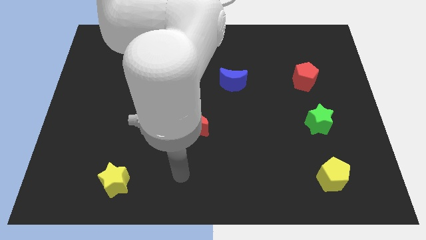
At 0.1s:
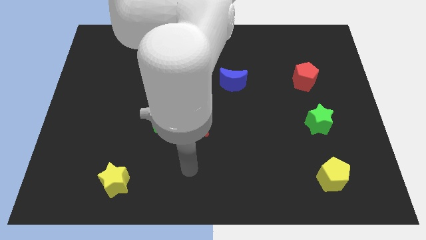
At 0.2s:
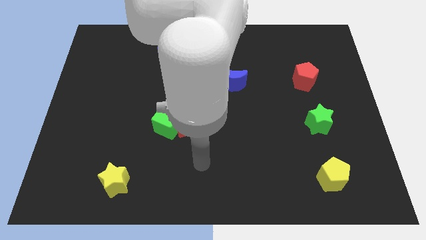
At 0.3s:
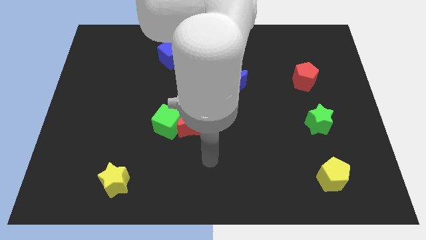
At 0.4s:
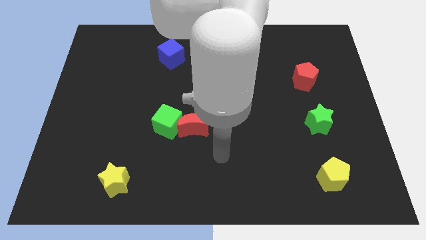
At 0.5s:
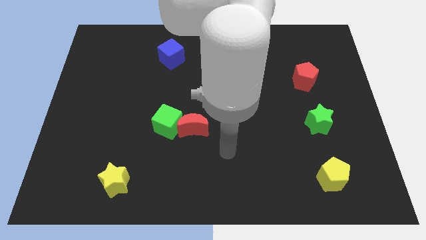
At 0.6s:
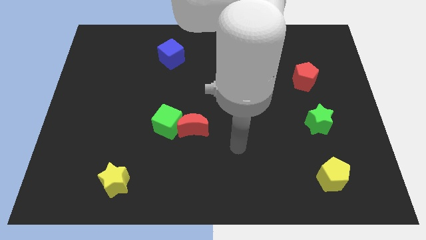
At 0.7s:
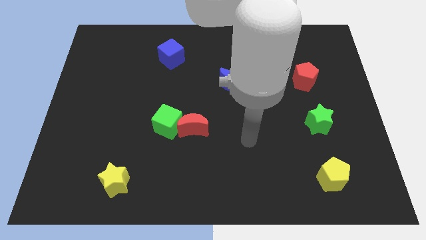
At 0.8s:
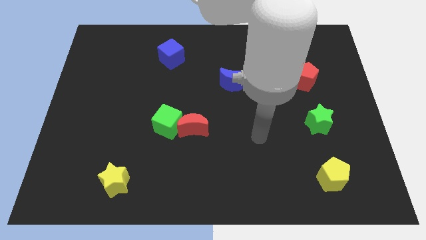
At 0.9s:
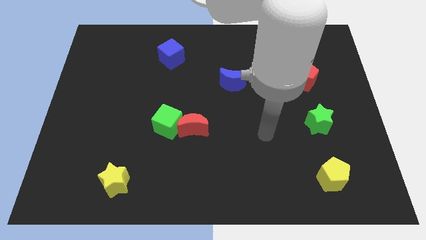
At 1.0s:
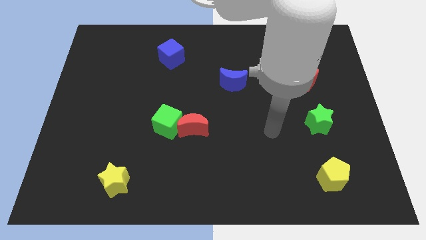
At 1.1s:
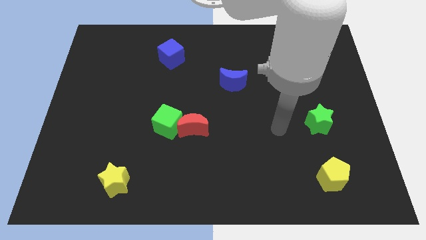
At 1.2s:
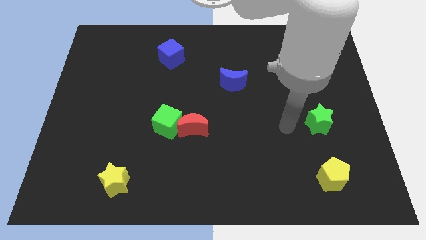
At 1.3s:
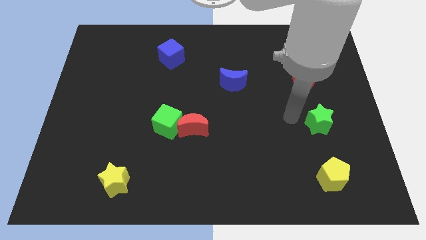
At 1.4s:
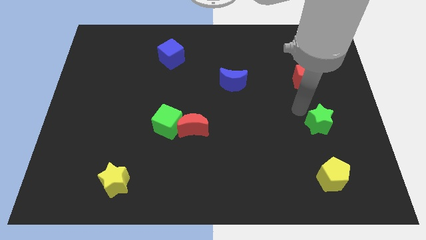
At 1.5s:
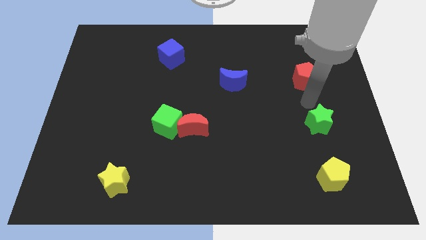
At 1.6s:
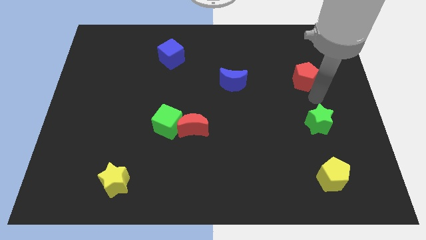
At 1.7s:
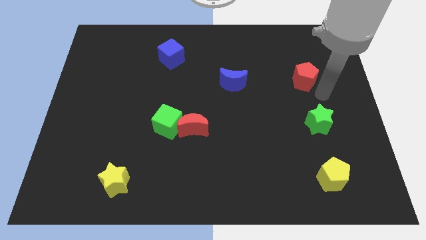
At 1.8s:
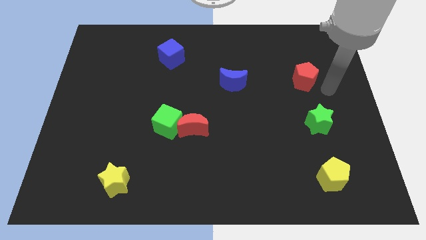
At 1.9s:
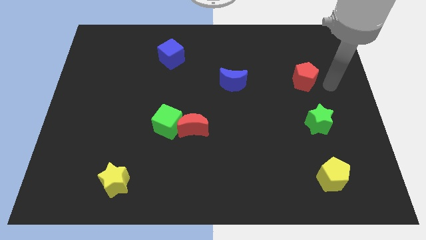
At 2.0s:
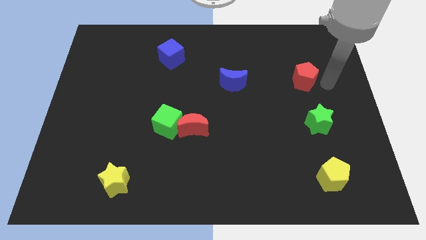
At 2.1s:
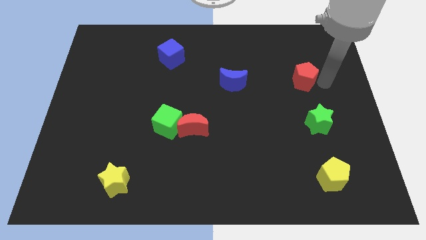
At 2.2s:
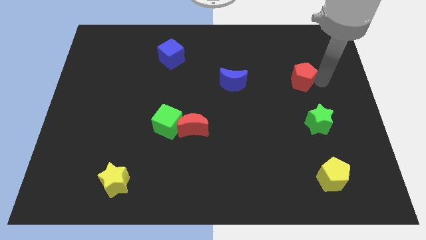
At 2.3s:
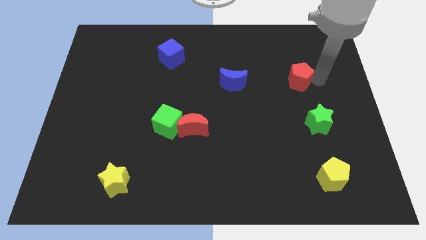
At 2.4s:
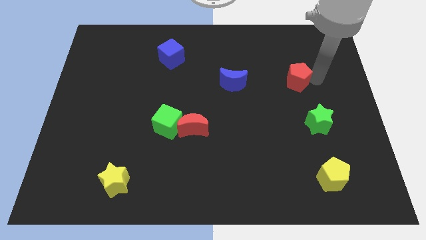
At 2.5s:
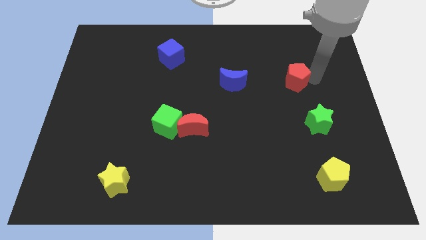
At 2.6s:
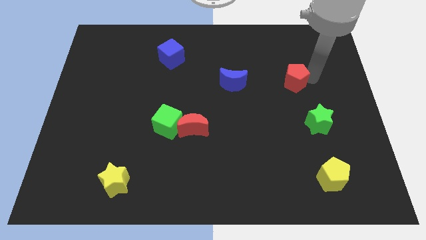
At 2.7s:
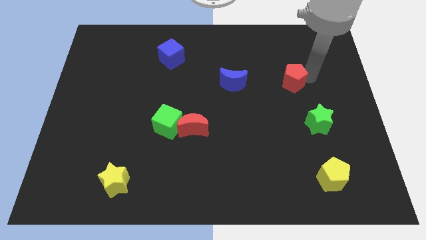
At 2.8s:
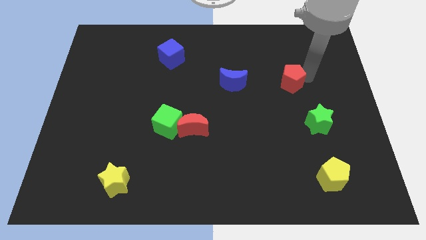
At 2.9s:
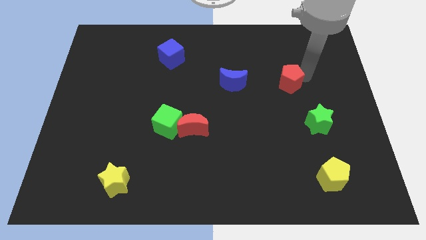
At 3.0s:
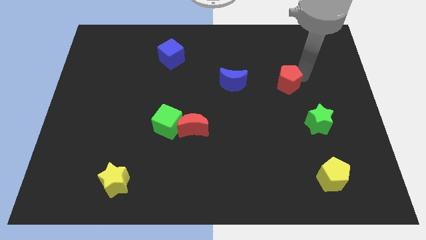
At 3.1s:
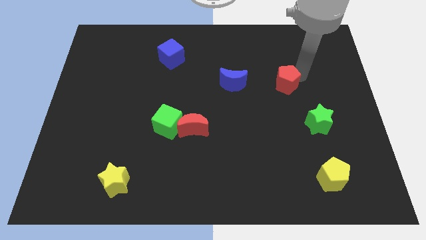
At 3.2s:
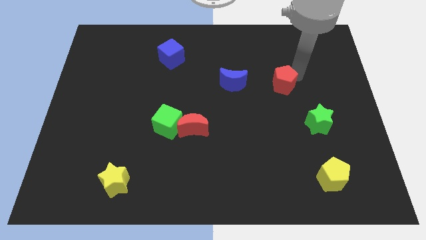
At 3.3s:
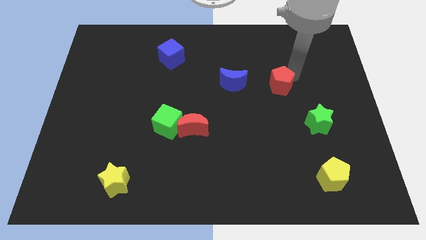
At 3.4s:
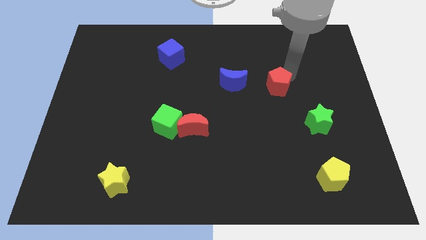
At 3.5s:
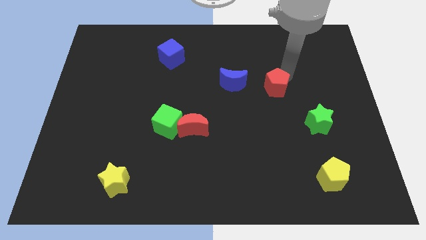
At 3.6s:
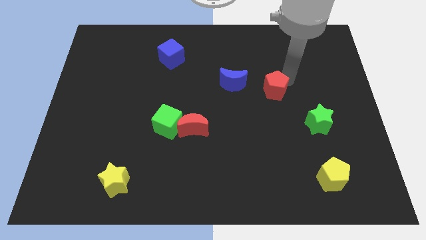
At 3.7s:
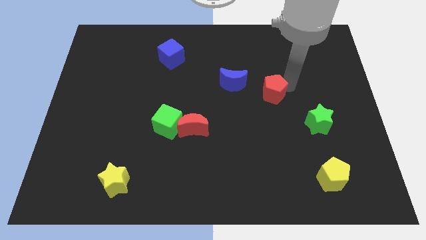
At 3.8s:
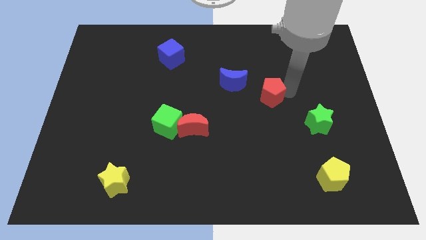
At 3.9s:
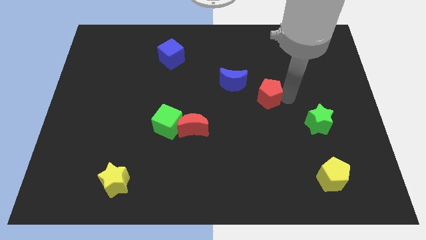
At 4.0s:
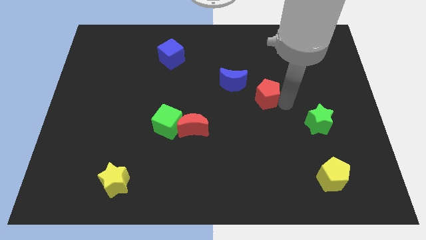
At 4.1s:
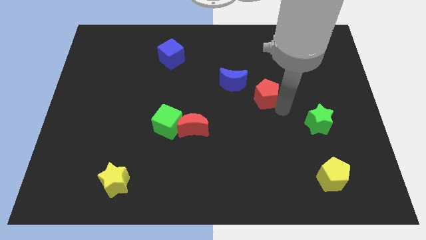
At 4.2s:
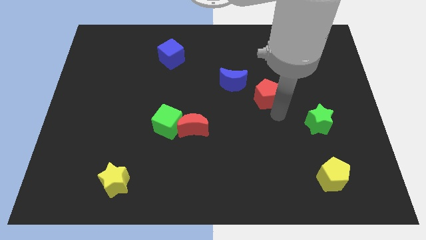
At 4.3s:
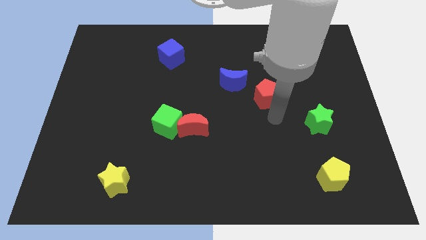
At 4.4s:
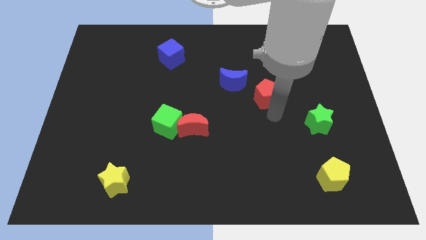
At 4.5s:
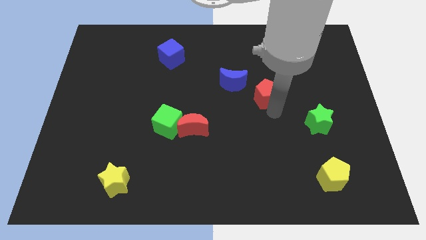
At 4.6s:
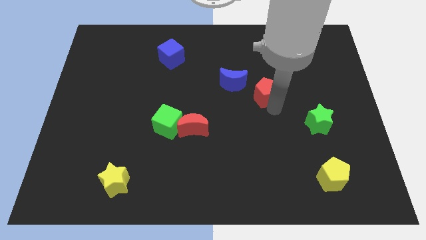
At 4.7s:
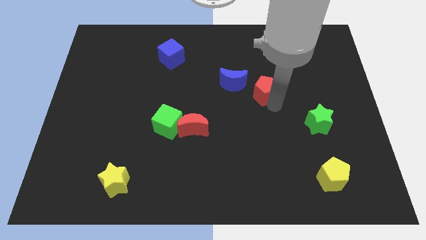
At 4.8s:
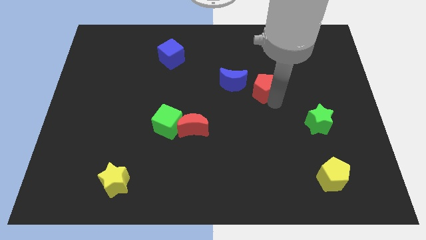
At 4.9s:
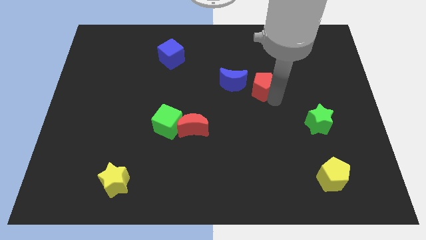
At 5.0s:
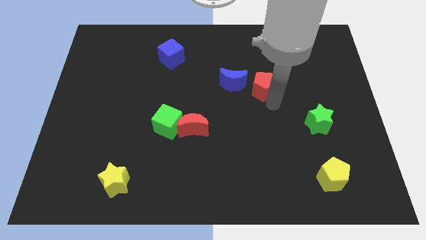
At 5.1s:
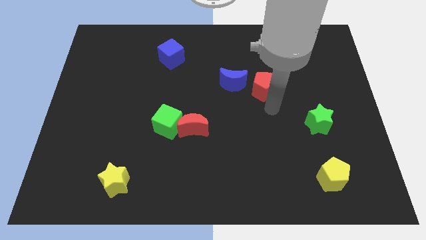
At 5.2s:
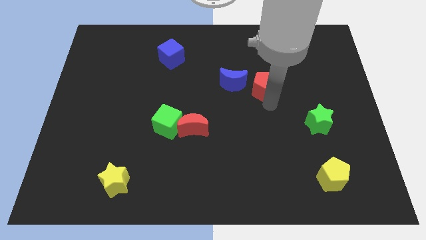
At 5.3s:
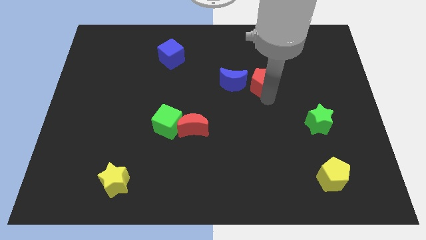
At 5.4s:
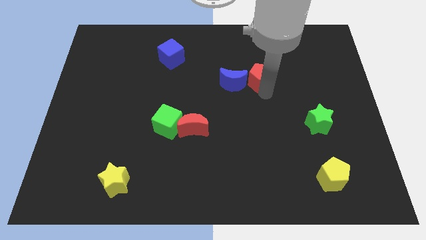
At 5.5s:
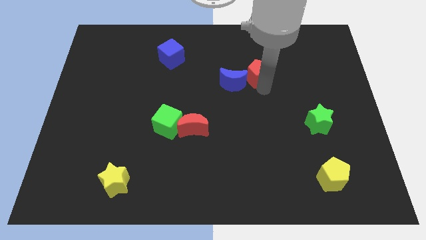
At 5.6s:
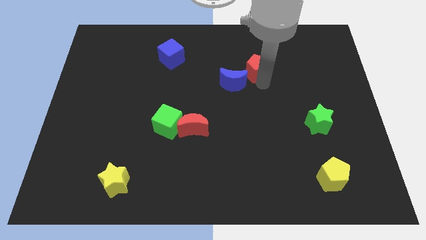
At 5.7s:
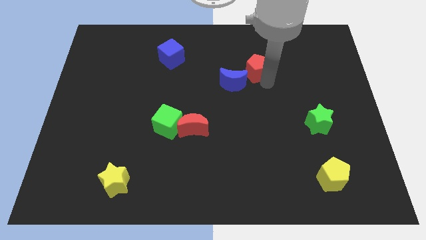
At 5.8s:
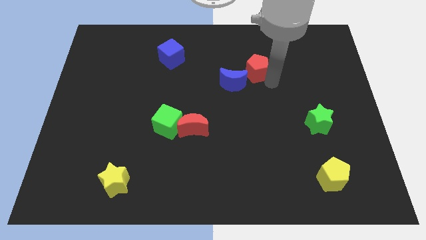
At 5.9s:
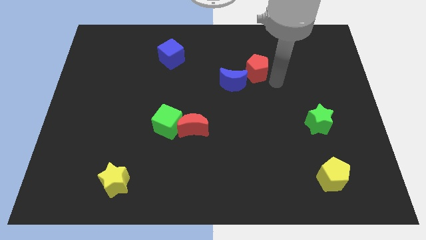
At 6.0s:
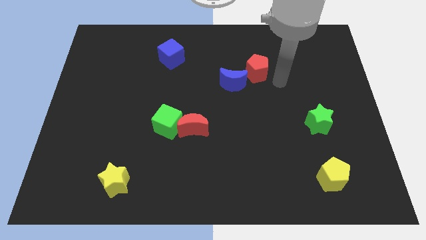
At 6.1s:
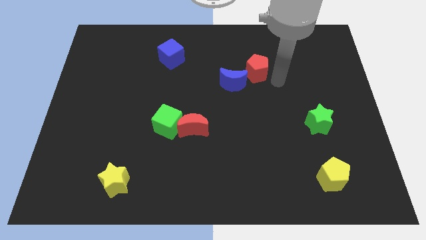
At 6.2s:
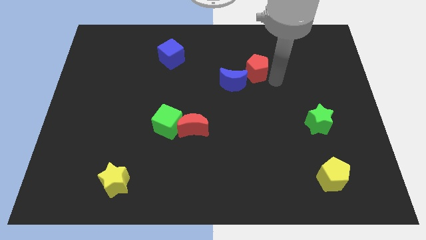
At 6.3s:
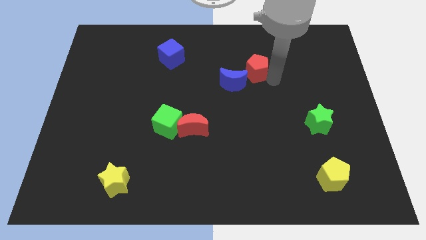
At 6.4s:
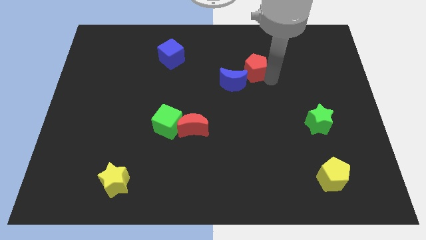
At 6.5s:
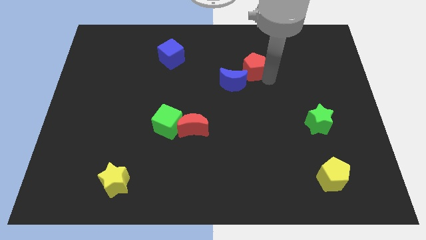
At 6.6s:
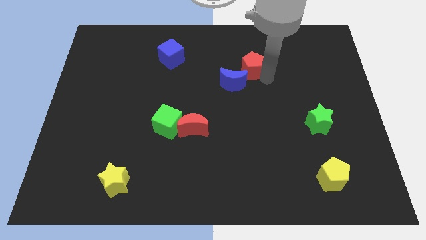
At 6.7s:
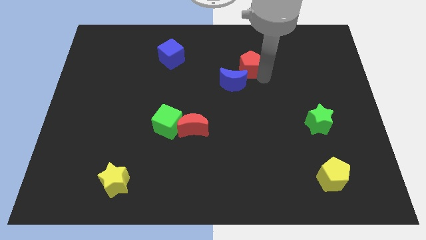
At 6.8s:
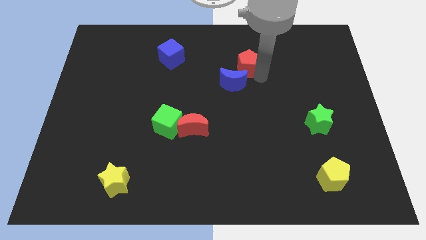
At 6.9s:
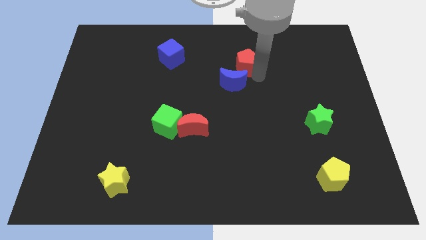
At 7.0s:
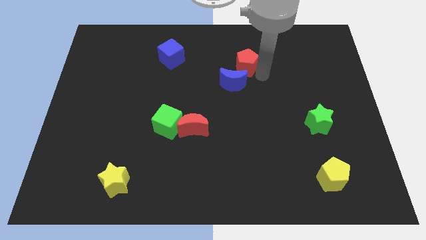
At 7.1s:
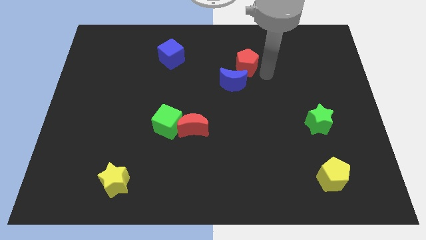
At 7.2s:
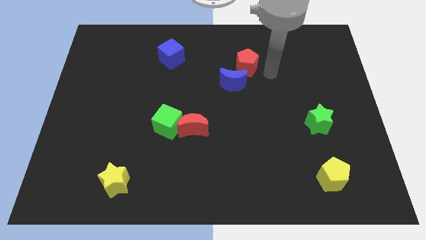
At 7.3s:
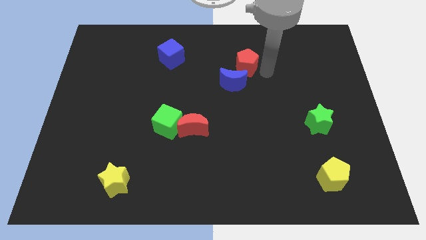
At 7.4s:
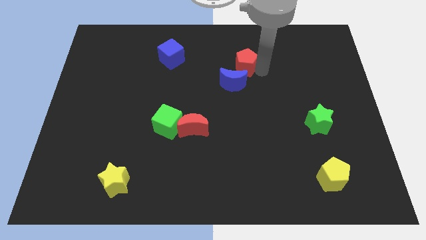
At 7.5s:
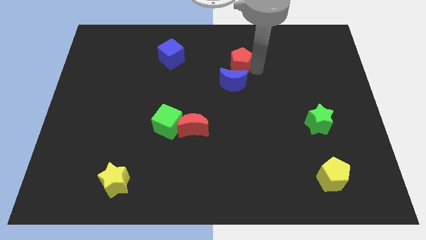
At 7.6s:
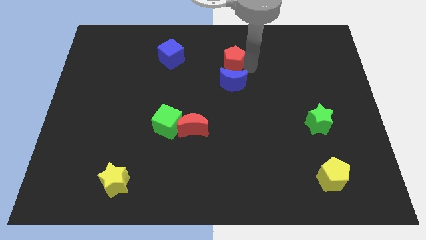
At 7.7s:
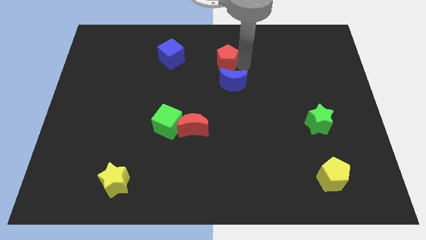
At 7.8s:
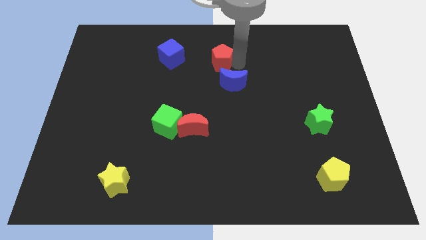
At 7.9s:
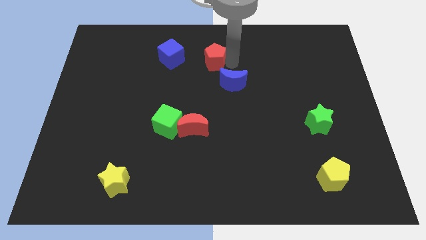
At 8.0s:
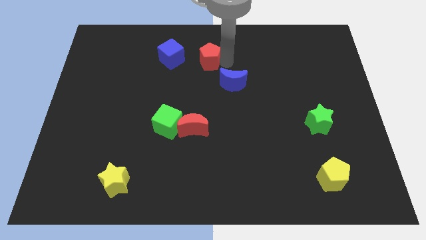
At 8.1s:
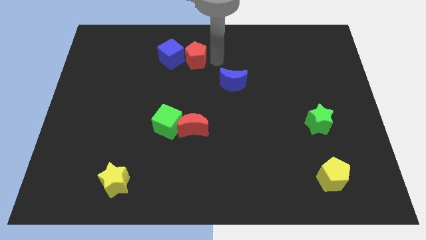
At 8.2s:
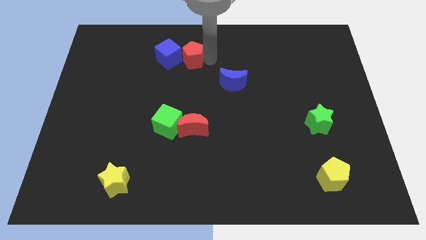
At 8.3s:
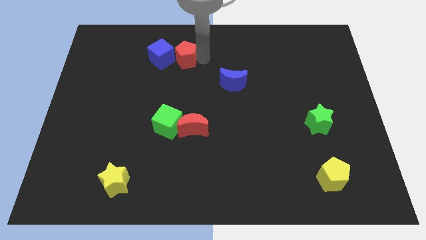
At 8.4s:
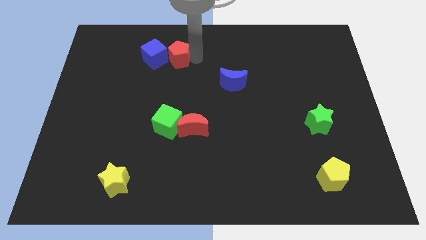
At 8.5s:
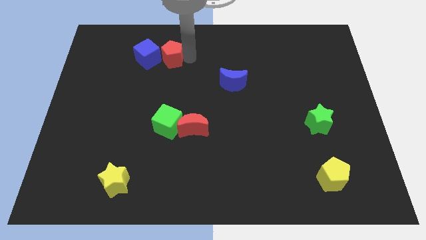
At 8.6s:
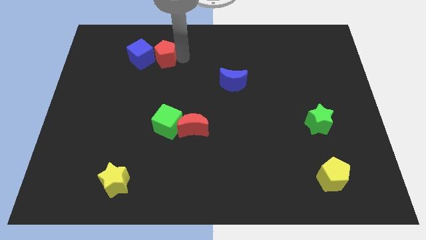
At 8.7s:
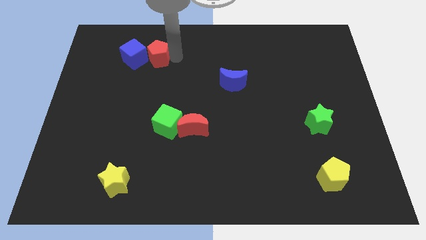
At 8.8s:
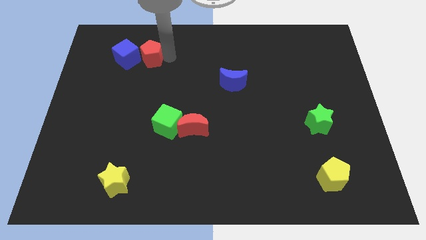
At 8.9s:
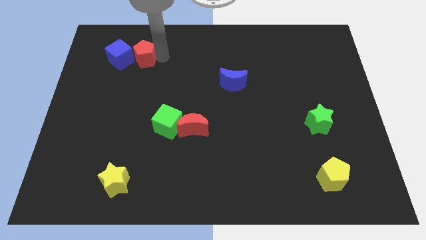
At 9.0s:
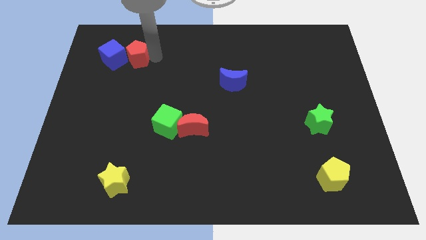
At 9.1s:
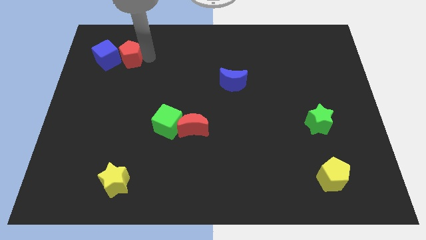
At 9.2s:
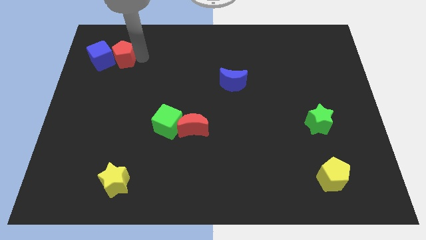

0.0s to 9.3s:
slide the red pentagon next to the blue cube
